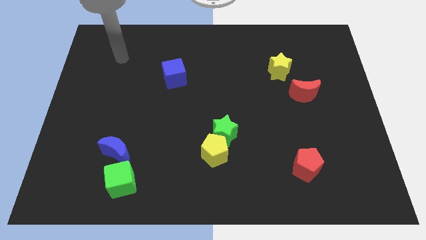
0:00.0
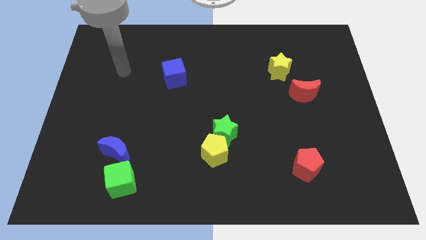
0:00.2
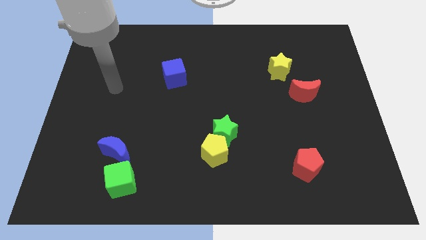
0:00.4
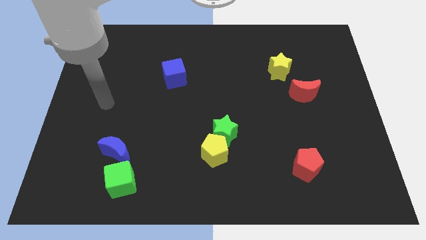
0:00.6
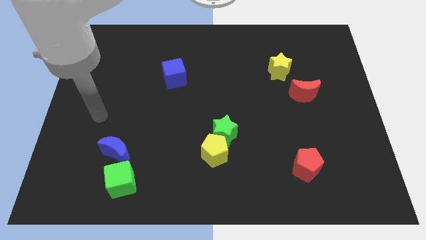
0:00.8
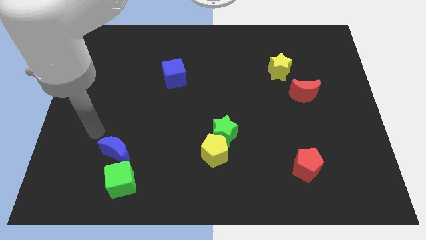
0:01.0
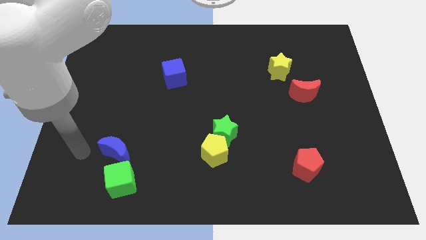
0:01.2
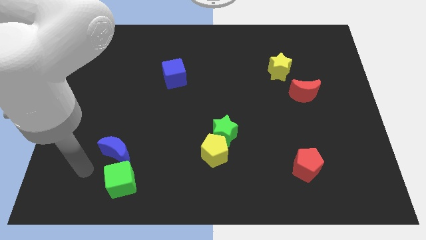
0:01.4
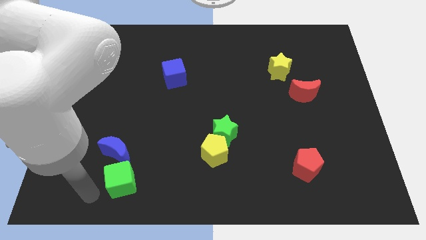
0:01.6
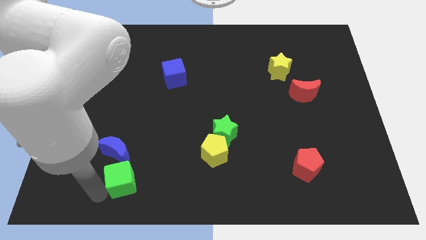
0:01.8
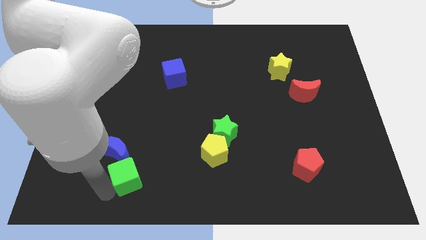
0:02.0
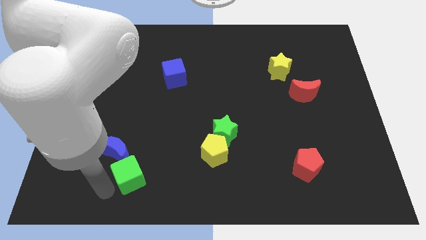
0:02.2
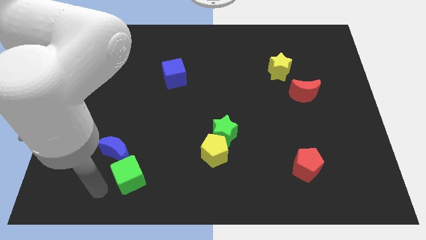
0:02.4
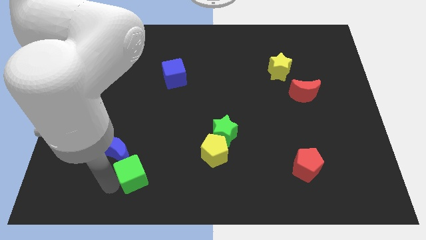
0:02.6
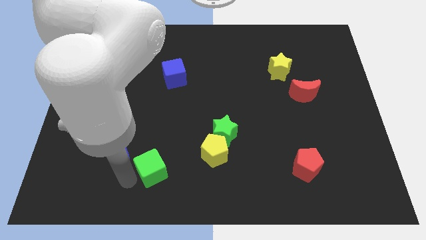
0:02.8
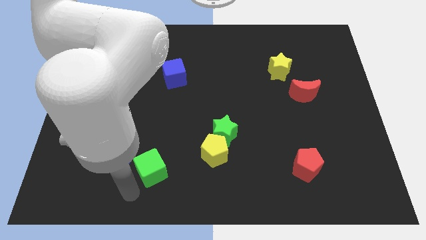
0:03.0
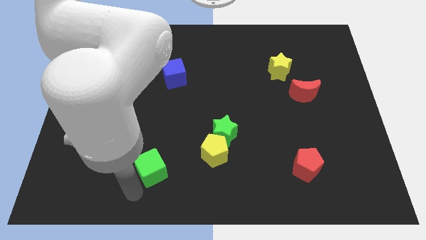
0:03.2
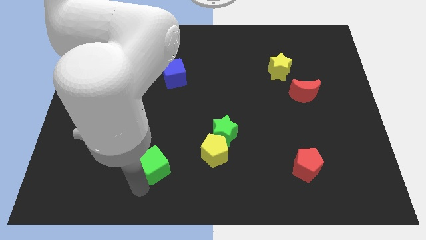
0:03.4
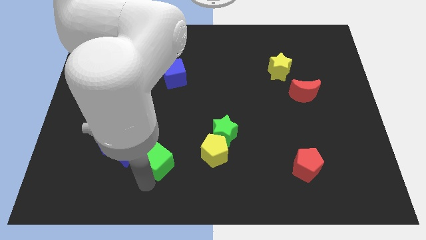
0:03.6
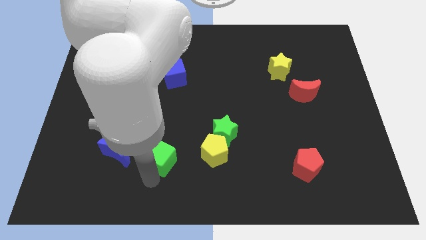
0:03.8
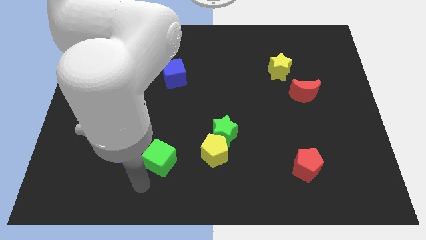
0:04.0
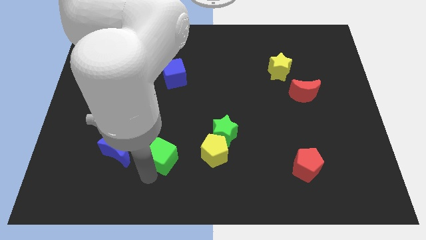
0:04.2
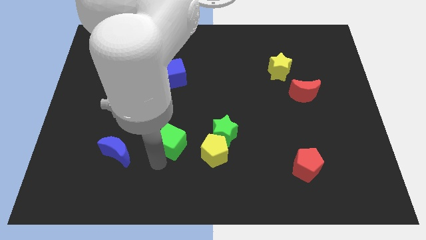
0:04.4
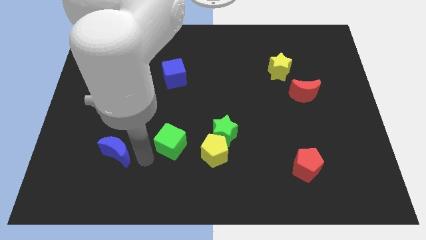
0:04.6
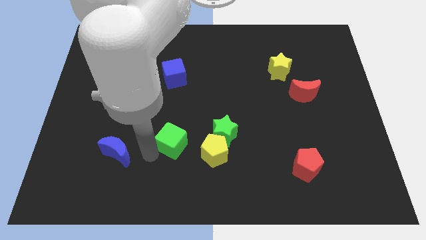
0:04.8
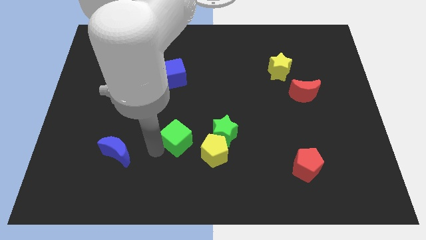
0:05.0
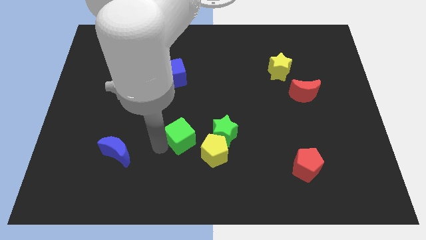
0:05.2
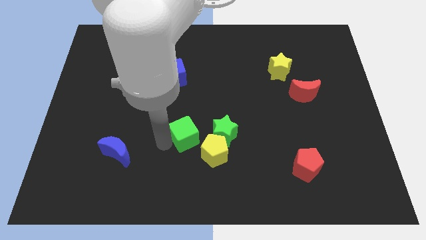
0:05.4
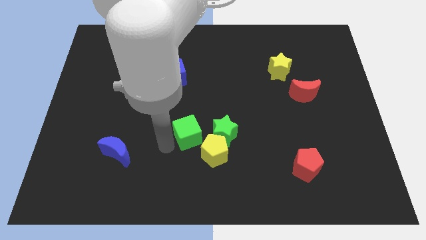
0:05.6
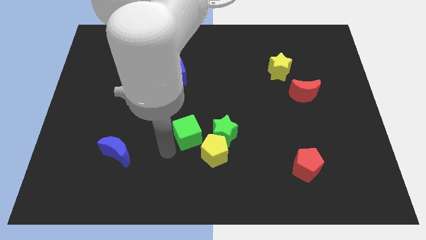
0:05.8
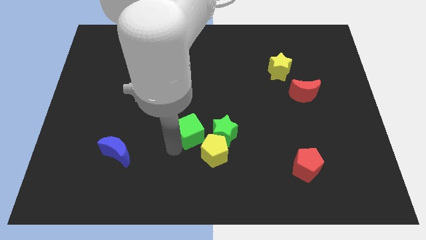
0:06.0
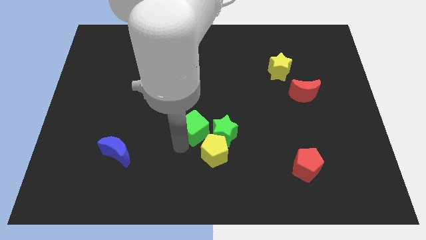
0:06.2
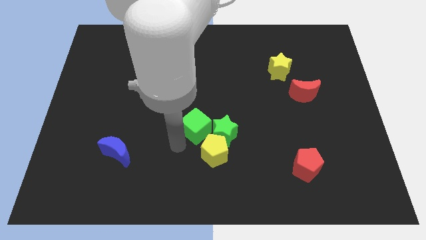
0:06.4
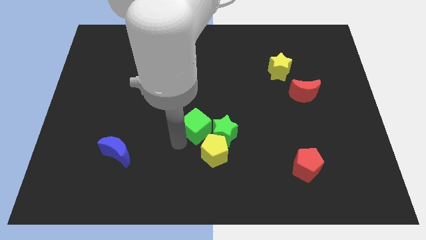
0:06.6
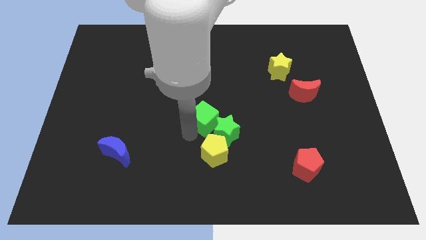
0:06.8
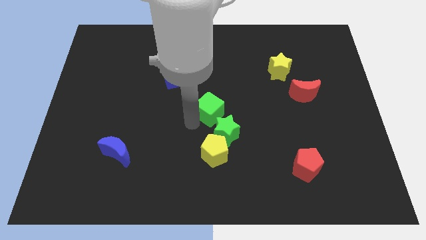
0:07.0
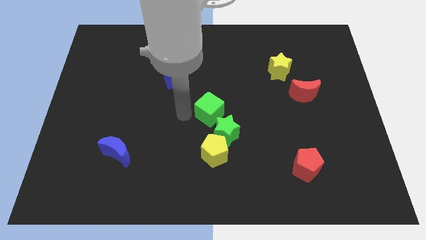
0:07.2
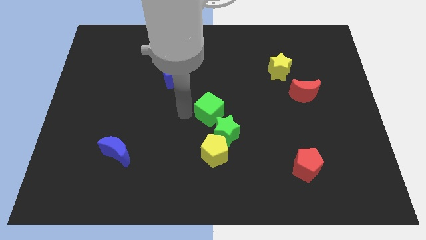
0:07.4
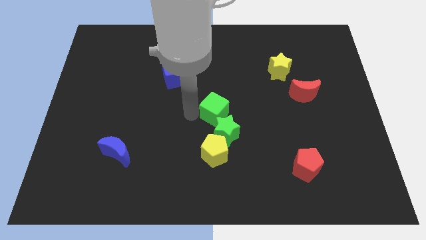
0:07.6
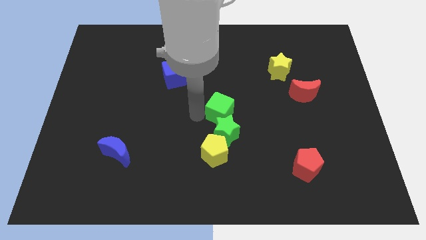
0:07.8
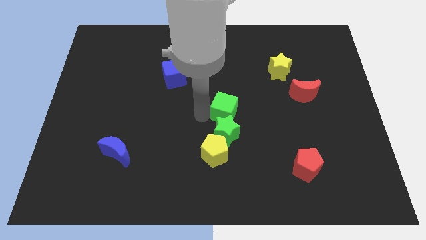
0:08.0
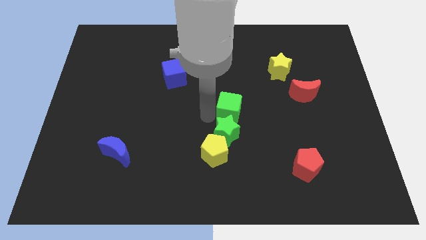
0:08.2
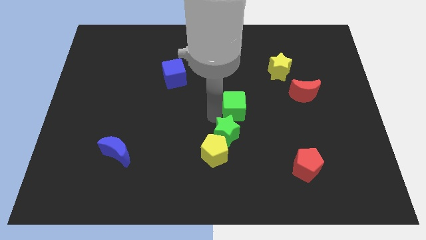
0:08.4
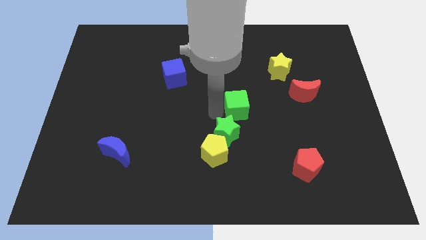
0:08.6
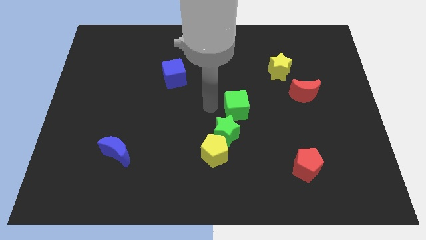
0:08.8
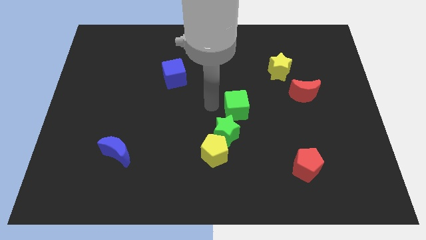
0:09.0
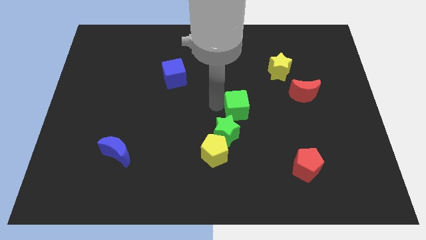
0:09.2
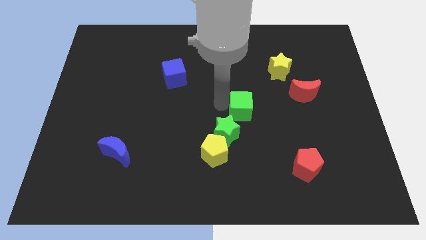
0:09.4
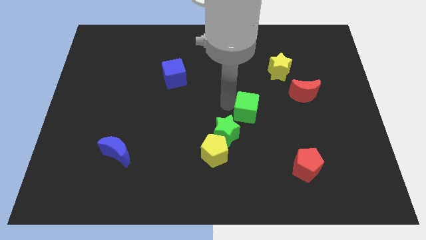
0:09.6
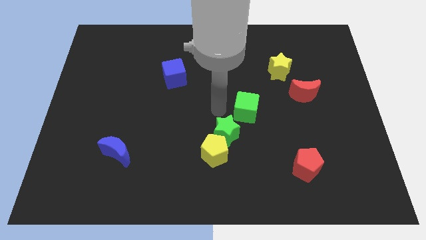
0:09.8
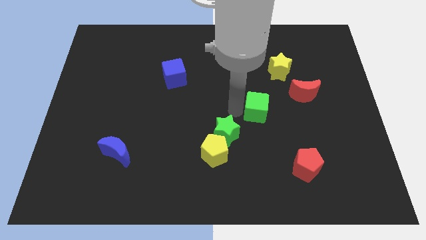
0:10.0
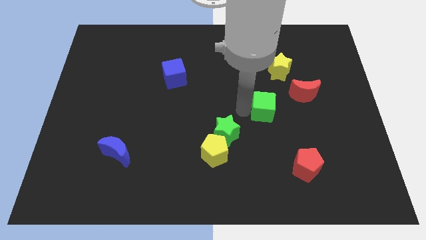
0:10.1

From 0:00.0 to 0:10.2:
put the green cube to the bottom left of the red moon

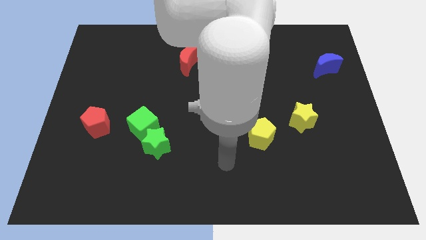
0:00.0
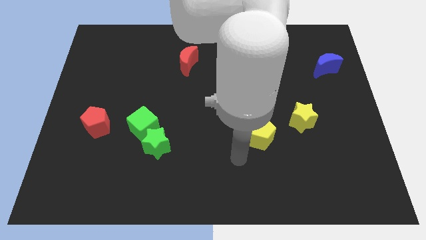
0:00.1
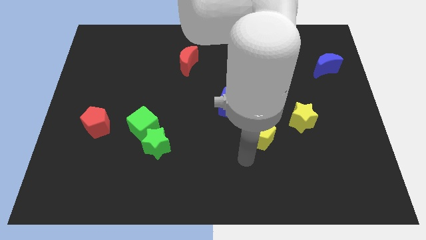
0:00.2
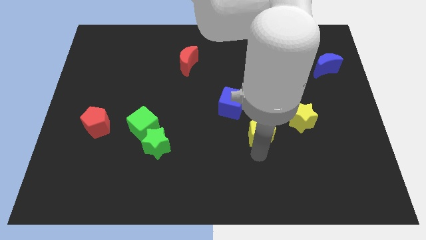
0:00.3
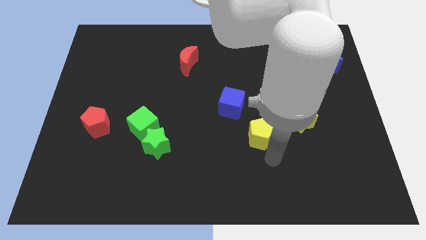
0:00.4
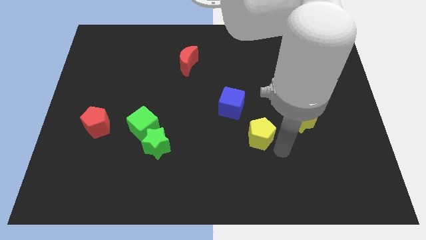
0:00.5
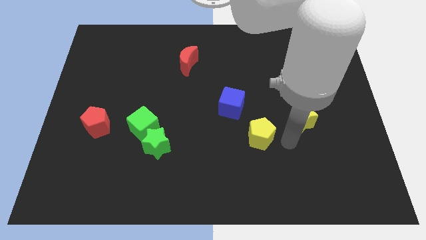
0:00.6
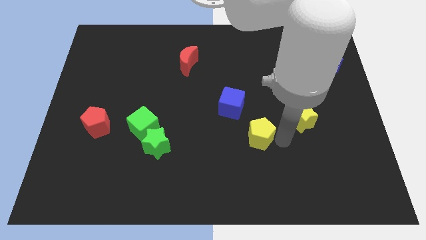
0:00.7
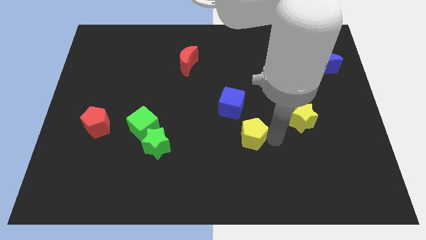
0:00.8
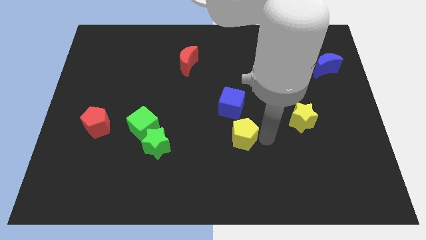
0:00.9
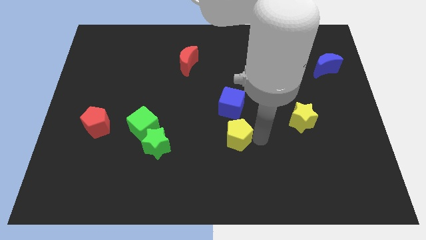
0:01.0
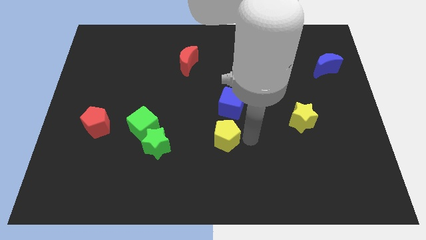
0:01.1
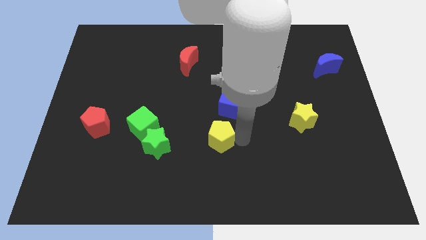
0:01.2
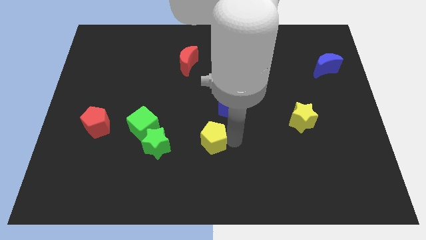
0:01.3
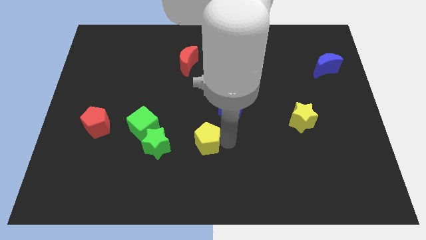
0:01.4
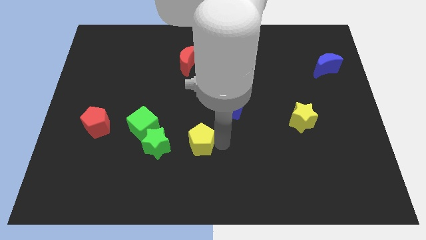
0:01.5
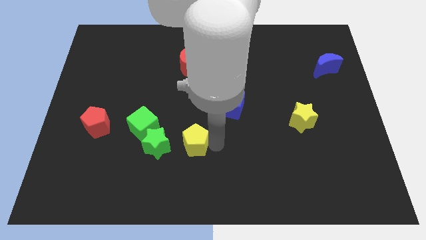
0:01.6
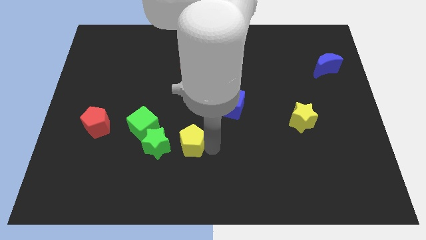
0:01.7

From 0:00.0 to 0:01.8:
push the yellow pentagon to the top right of the green star
